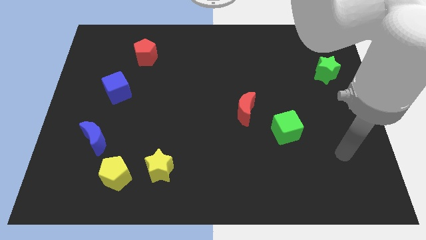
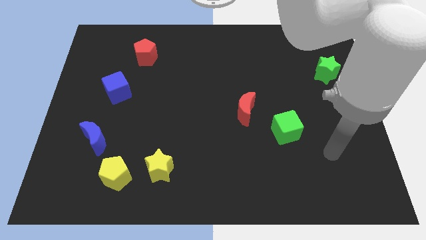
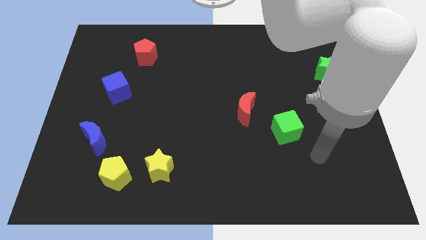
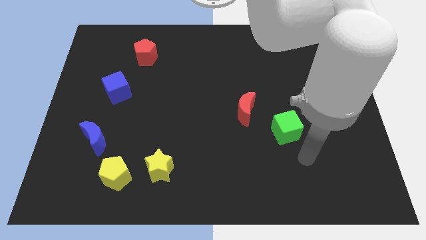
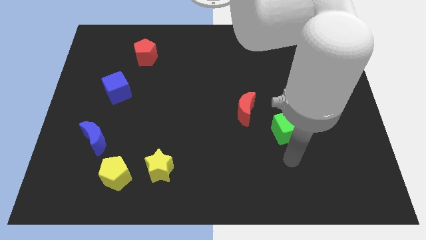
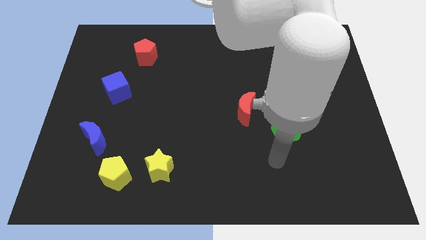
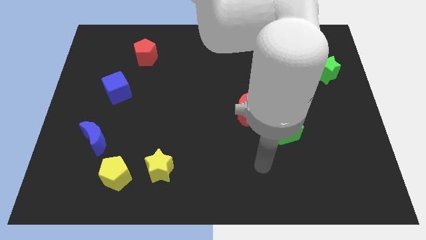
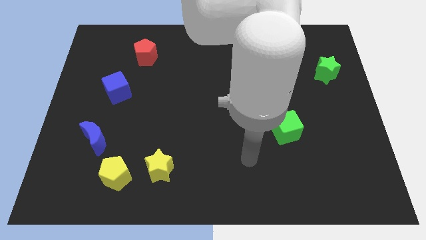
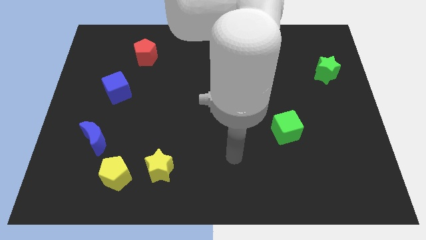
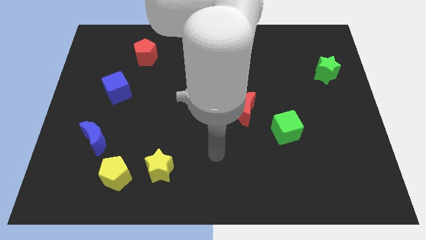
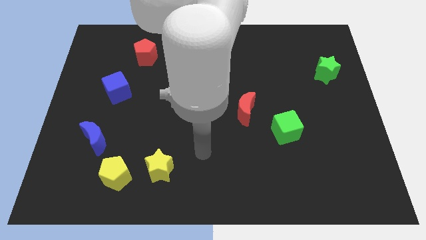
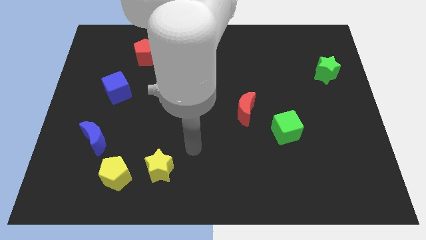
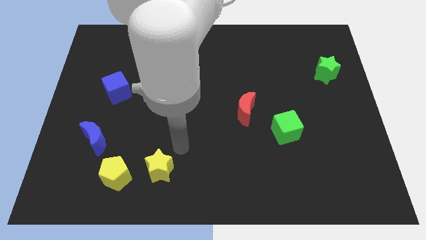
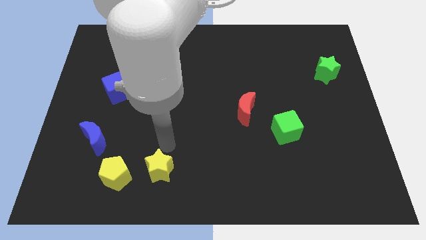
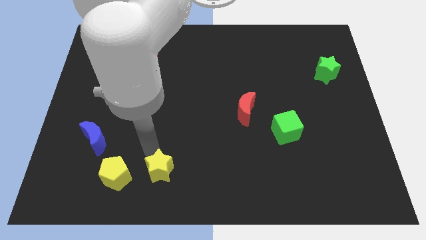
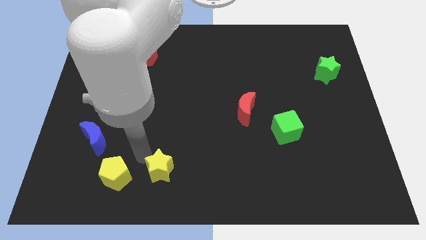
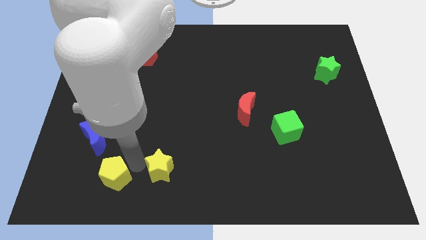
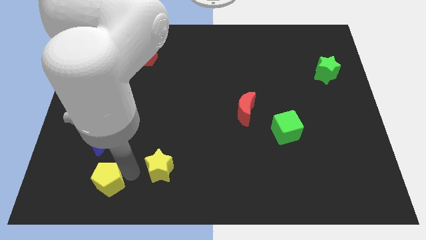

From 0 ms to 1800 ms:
separate the yellow star from the yellow pentagon

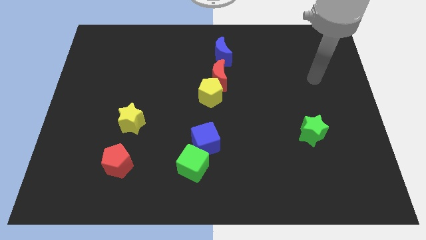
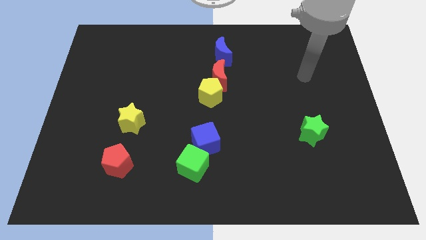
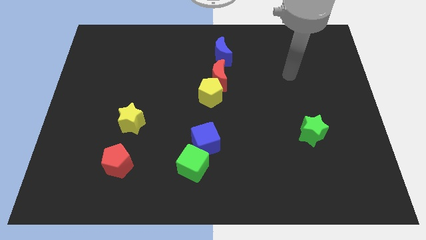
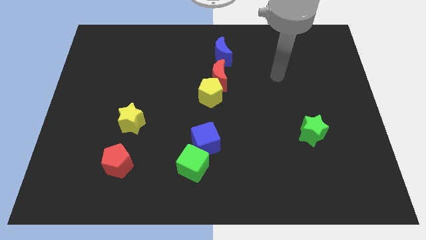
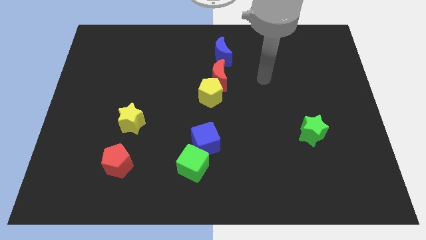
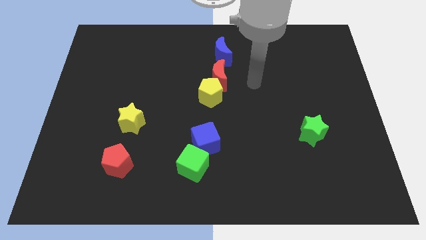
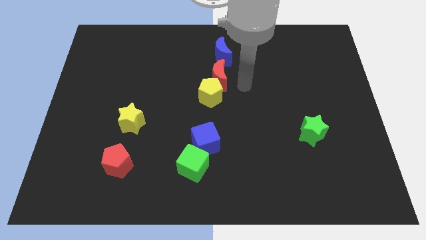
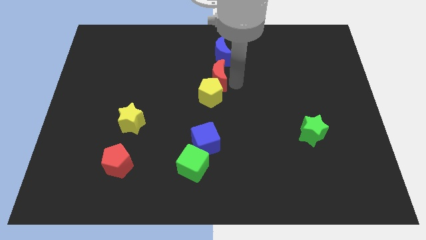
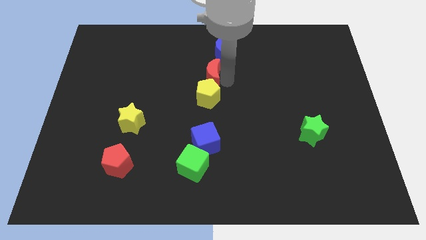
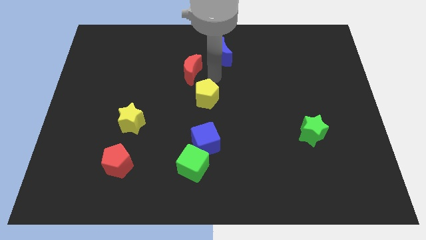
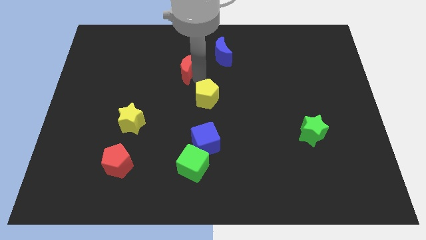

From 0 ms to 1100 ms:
separate the yellow pentagon from the red moon

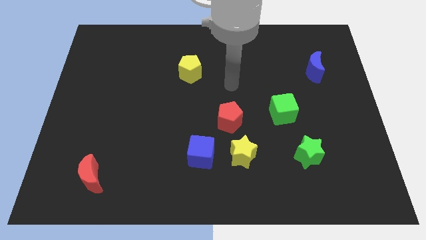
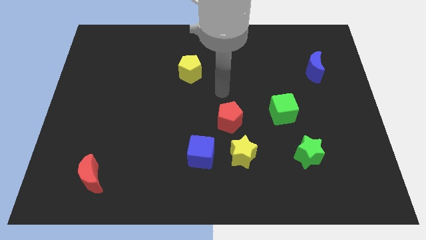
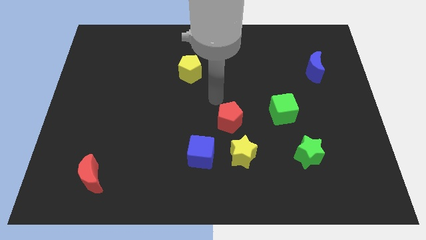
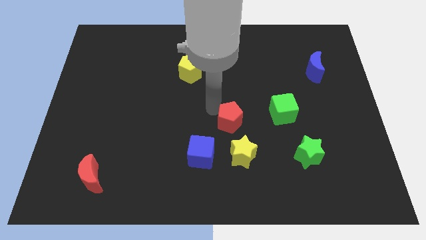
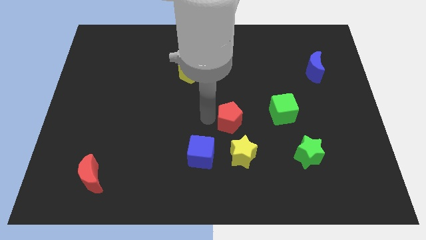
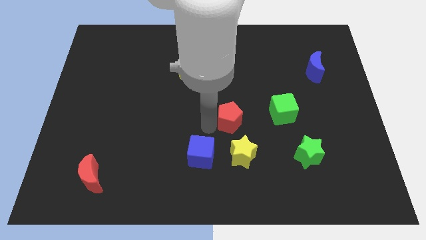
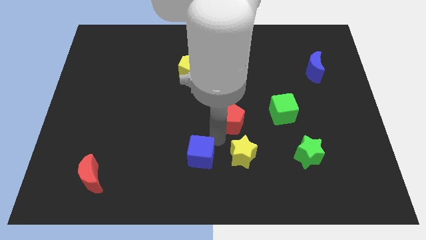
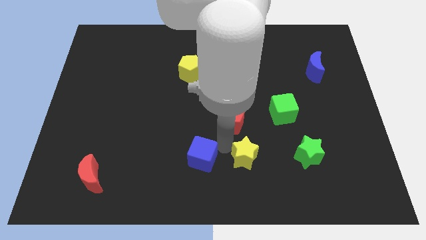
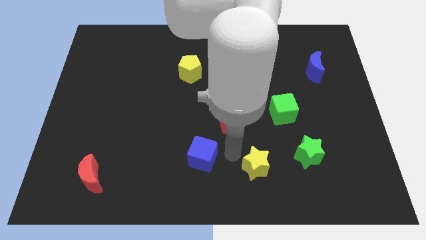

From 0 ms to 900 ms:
pull the blue cube apart from the yellow star

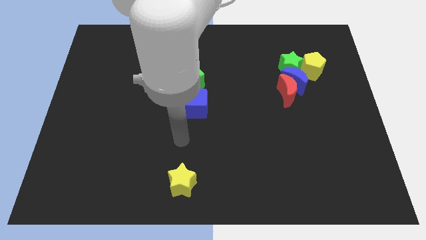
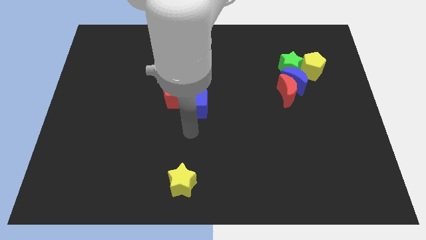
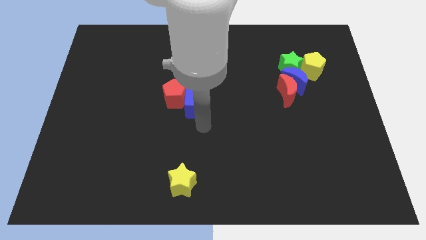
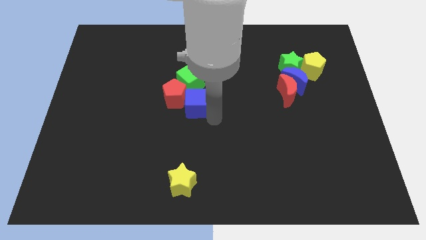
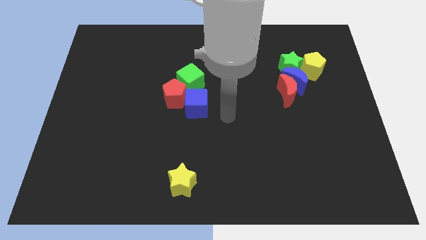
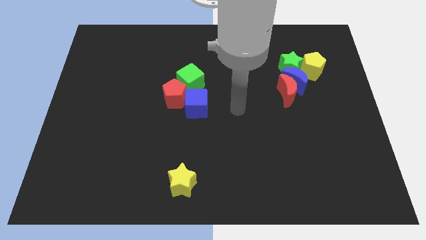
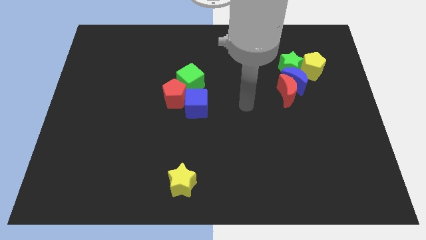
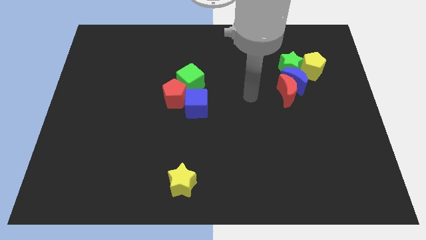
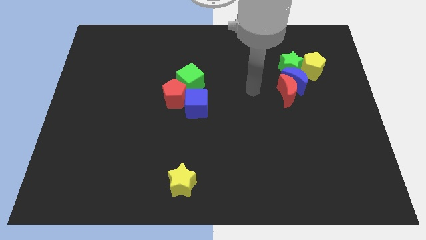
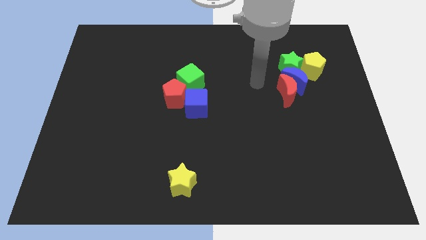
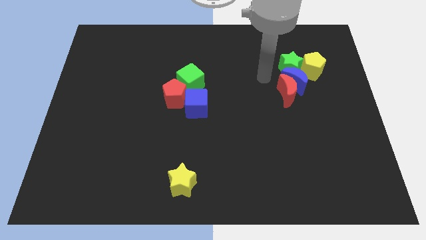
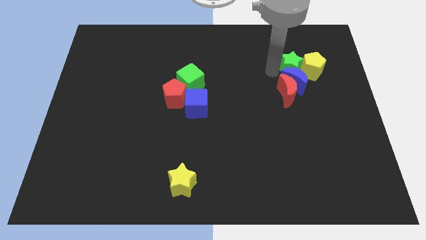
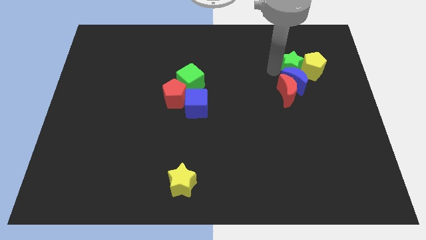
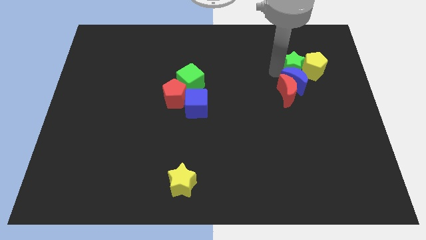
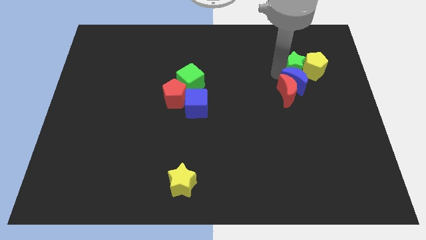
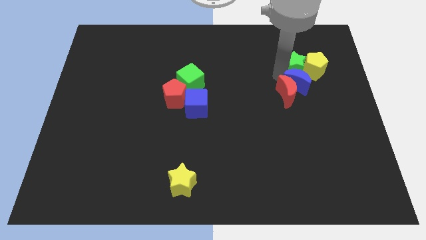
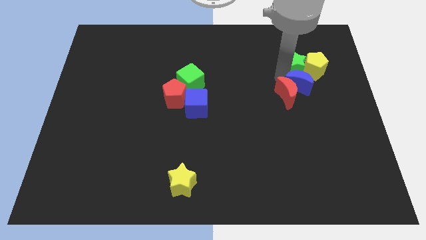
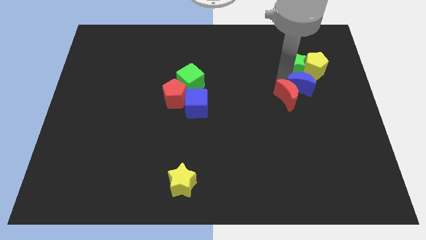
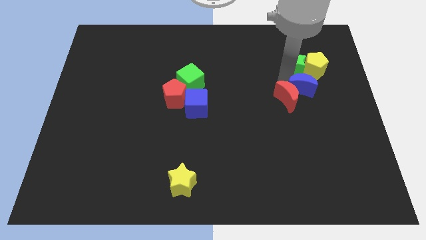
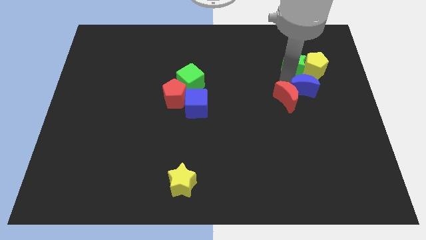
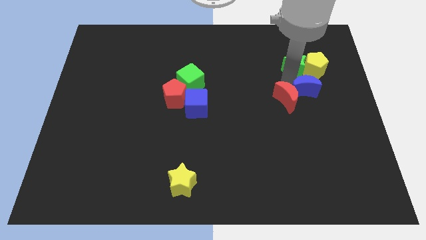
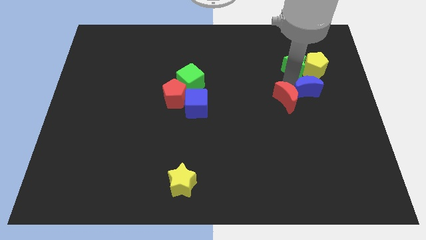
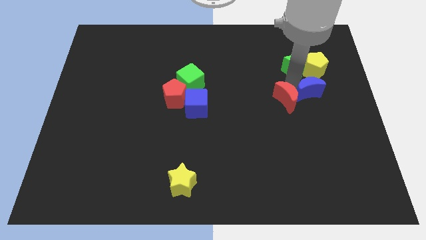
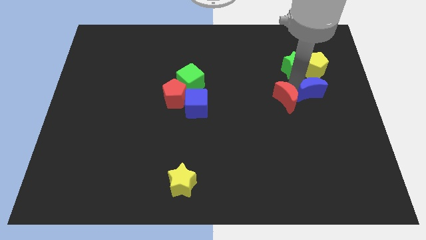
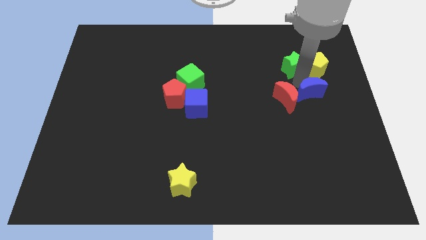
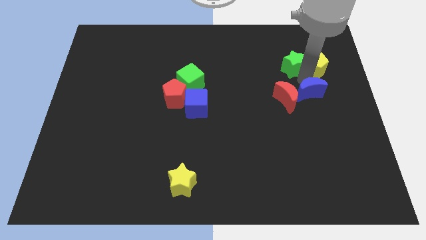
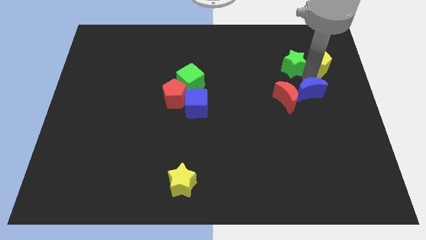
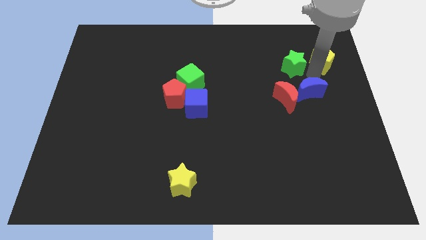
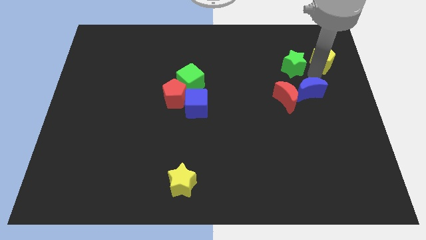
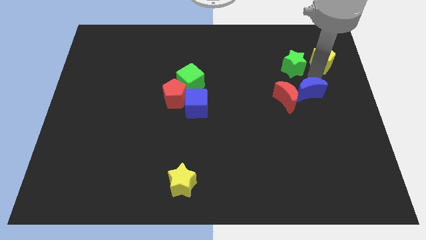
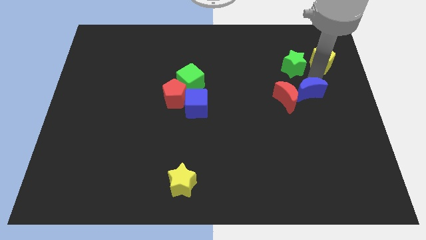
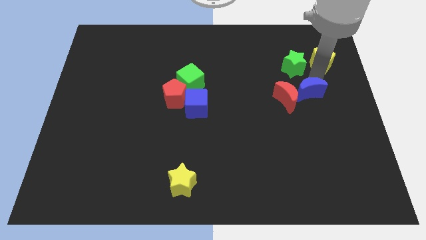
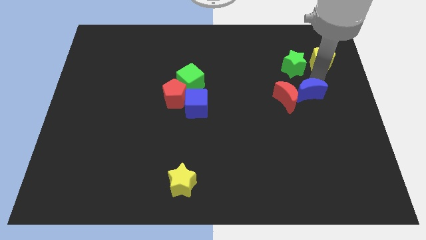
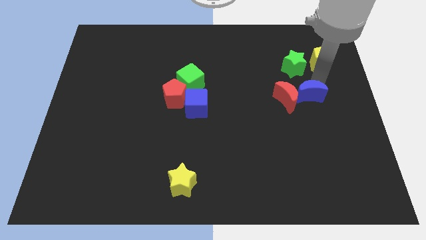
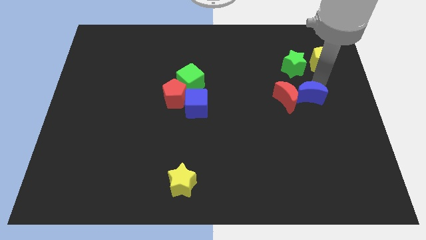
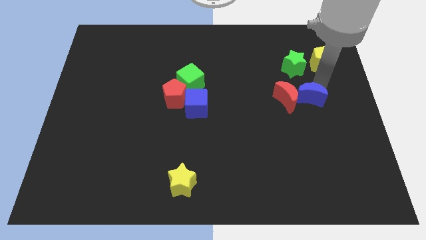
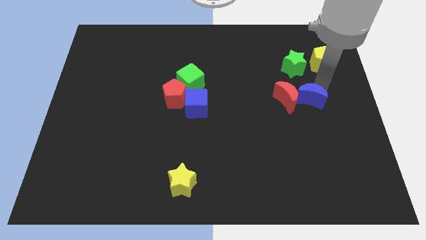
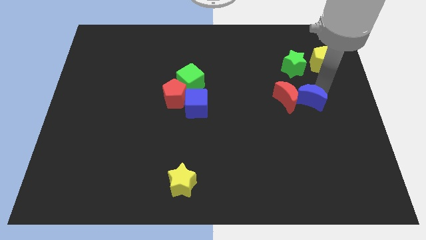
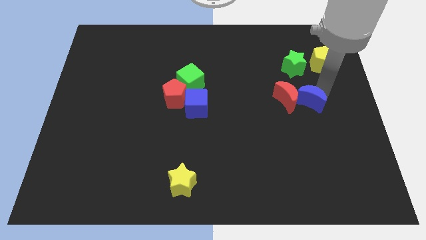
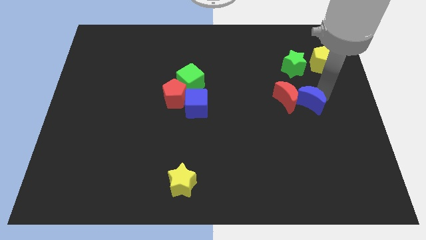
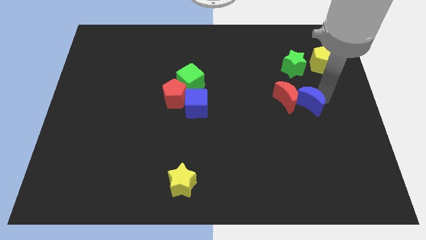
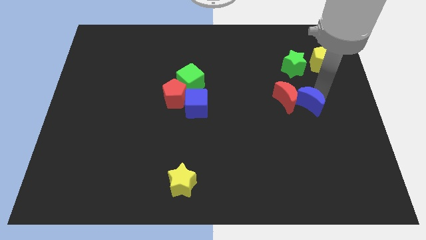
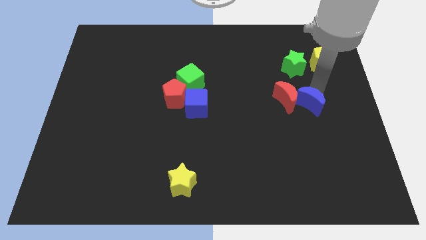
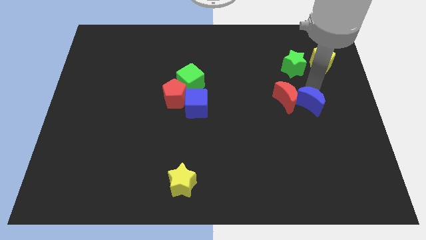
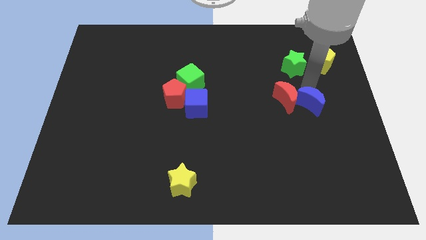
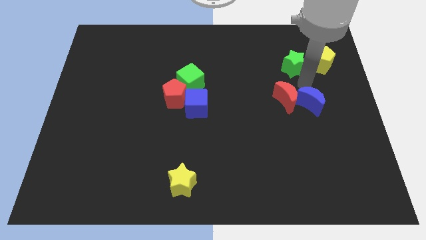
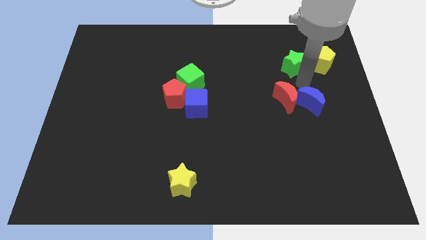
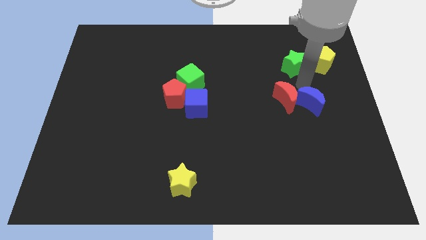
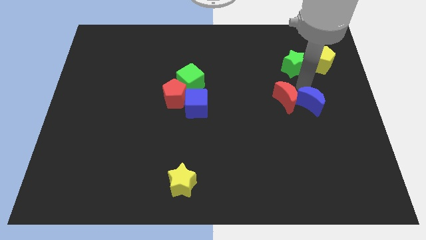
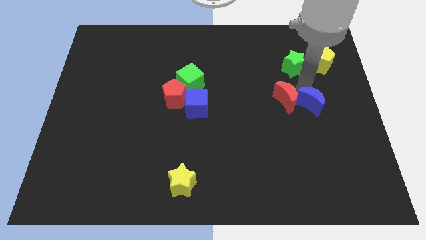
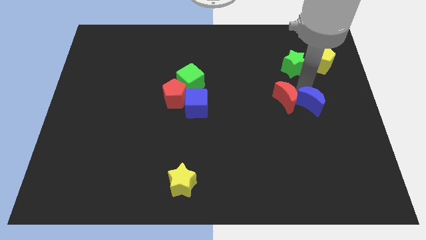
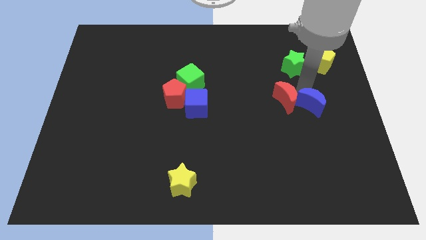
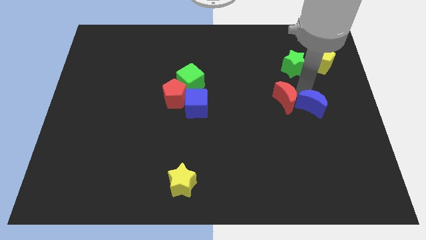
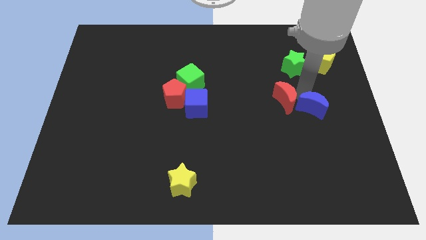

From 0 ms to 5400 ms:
separate the blue moon from the red moon, green star, and yellow pentagon
